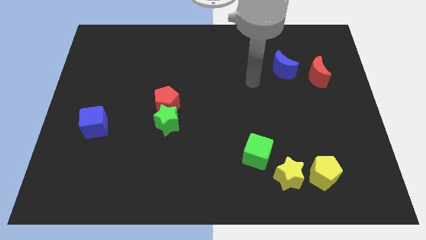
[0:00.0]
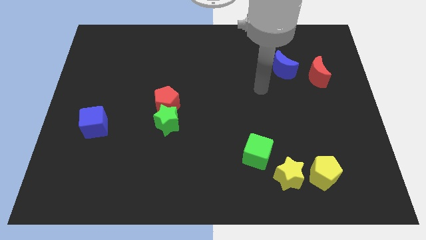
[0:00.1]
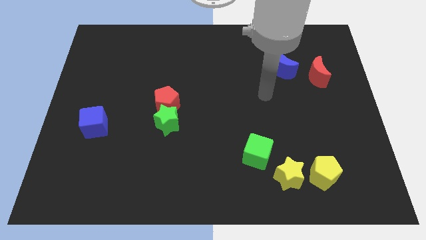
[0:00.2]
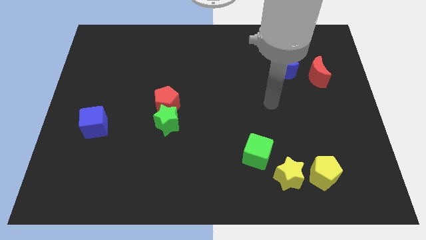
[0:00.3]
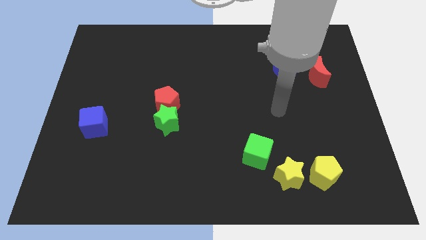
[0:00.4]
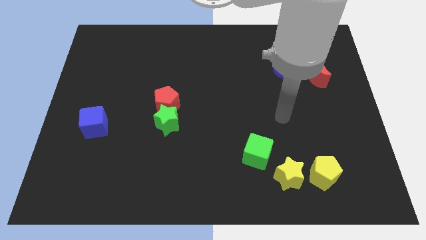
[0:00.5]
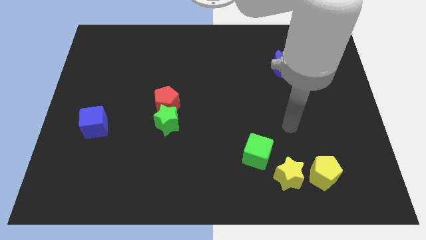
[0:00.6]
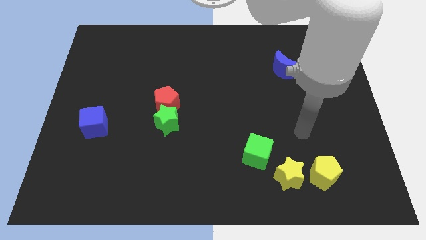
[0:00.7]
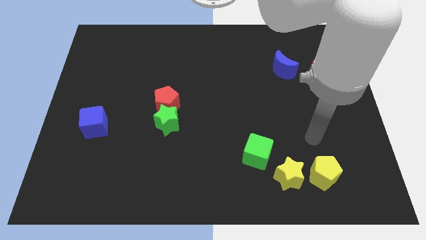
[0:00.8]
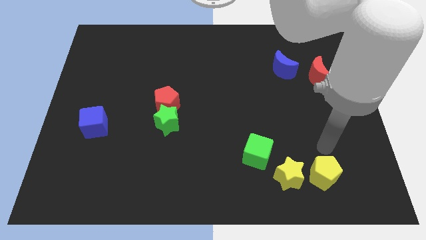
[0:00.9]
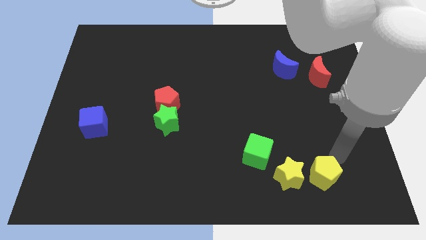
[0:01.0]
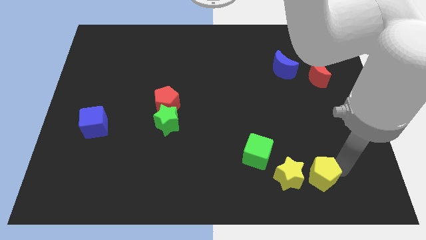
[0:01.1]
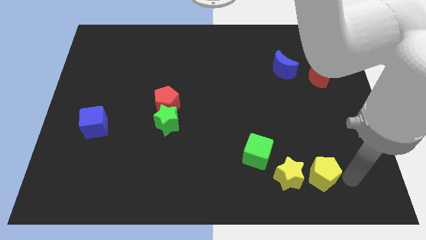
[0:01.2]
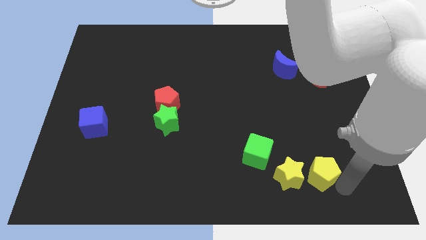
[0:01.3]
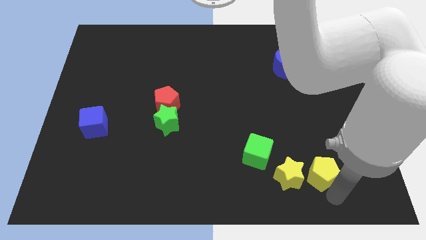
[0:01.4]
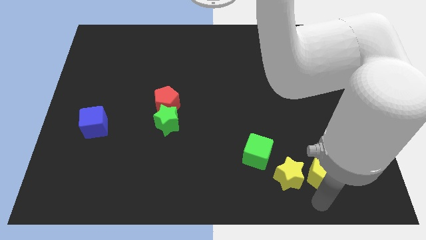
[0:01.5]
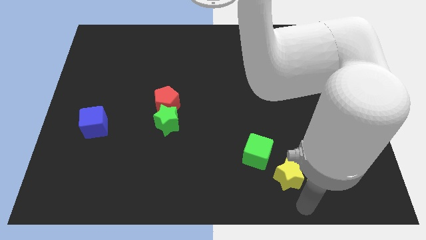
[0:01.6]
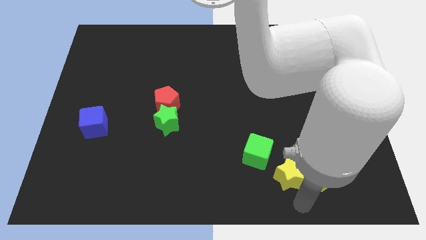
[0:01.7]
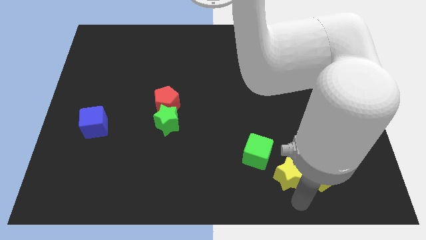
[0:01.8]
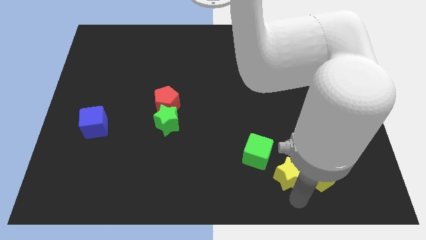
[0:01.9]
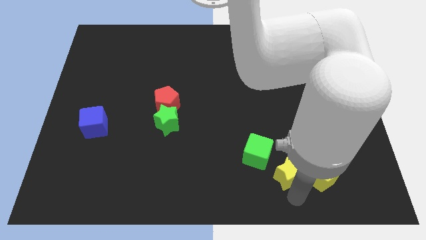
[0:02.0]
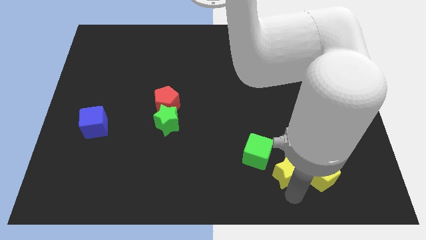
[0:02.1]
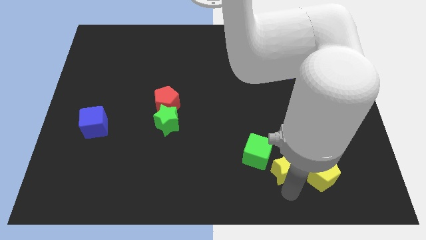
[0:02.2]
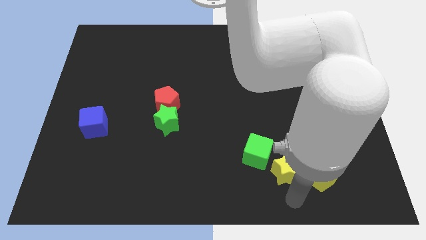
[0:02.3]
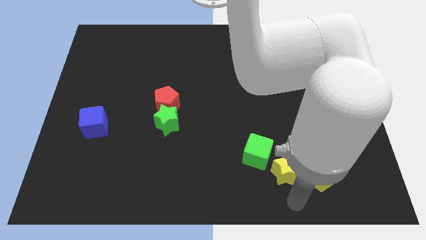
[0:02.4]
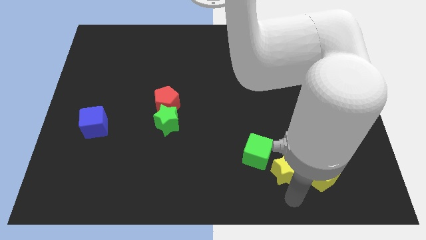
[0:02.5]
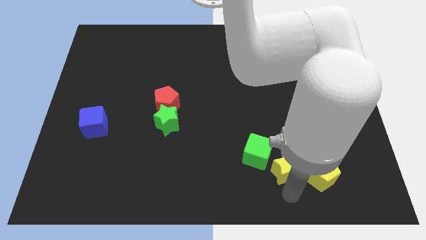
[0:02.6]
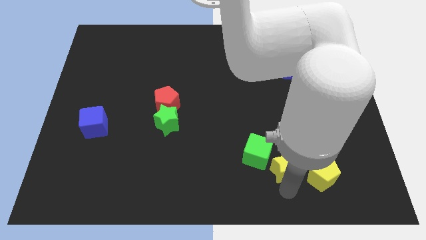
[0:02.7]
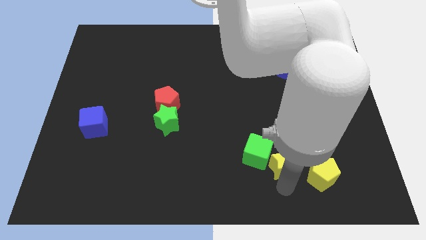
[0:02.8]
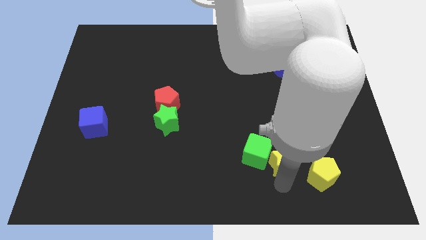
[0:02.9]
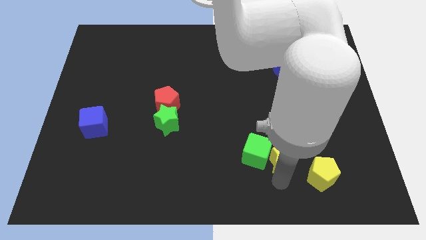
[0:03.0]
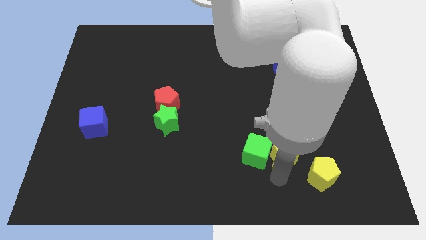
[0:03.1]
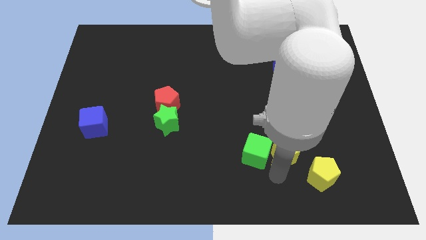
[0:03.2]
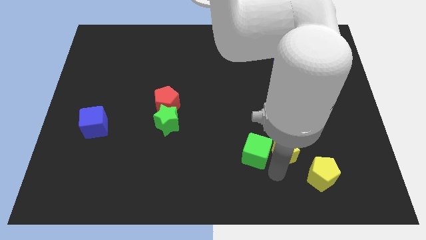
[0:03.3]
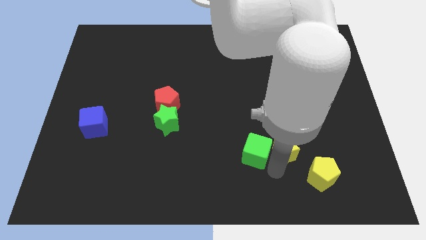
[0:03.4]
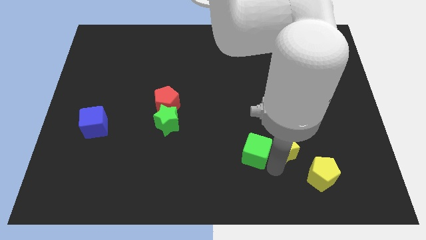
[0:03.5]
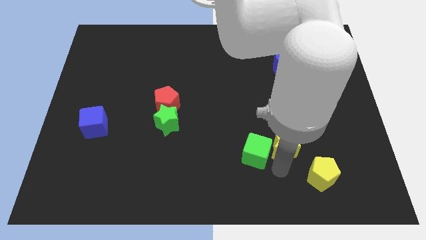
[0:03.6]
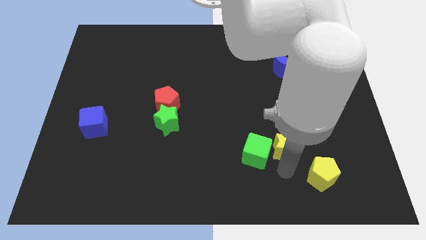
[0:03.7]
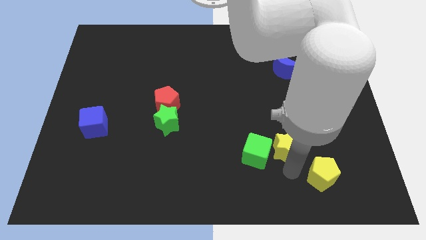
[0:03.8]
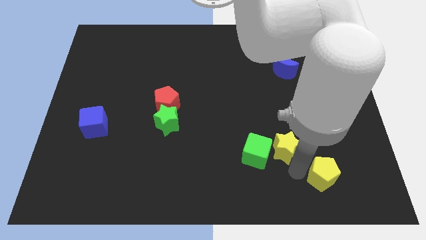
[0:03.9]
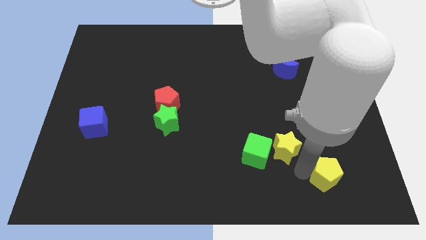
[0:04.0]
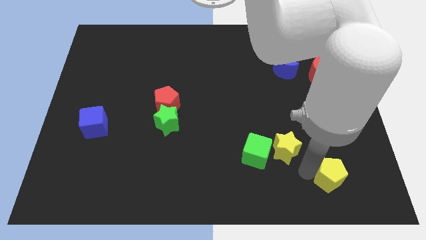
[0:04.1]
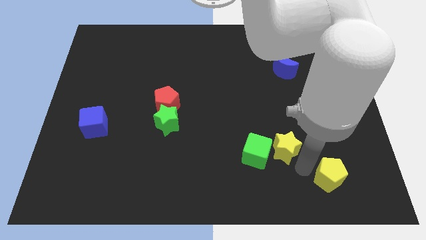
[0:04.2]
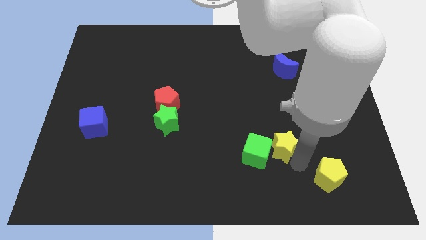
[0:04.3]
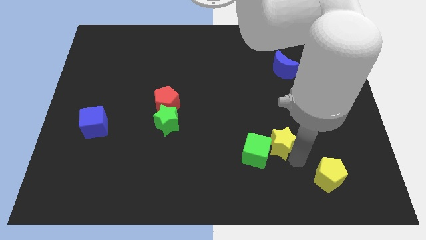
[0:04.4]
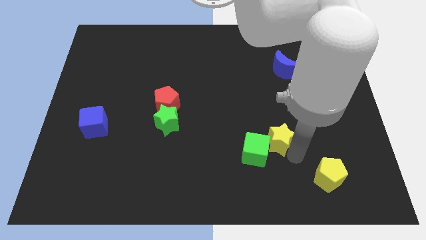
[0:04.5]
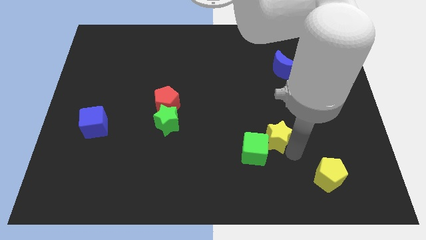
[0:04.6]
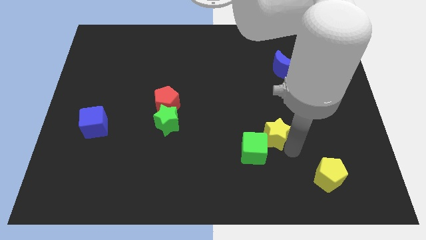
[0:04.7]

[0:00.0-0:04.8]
slide the yellow star up and then to the left a little

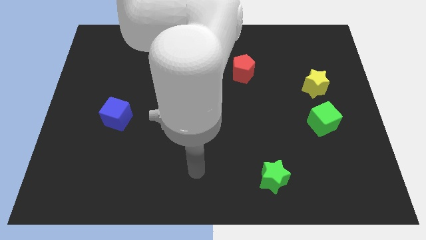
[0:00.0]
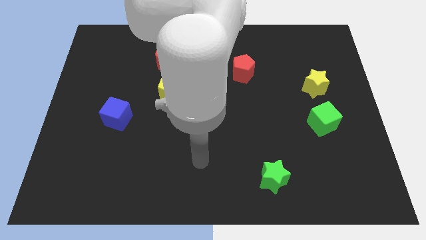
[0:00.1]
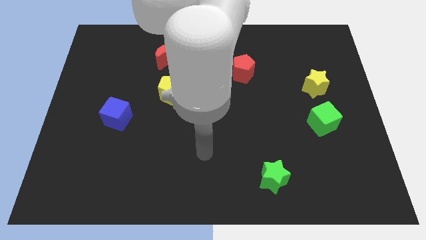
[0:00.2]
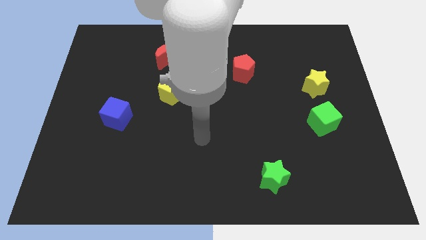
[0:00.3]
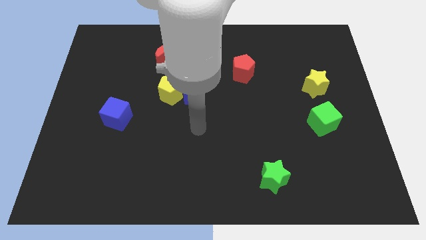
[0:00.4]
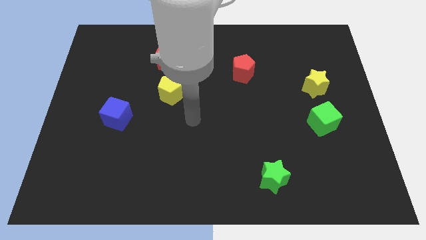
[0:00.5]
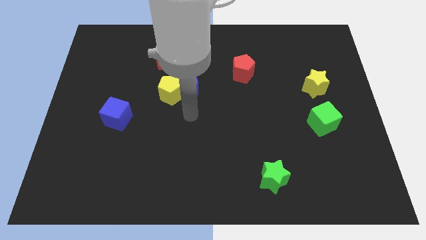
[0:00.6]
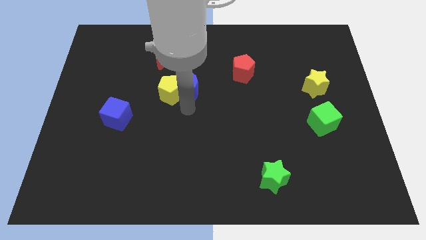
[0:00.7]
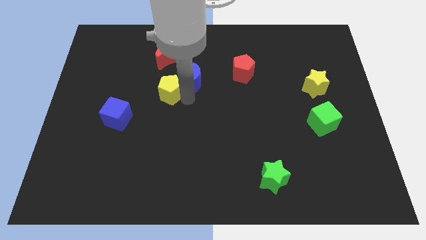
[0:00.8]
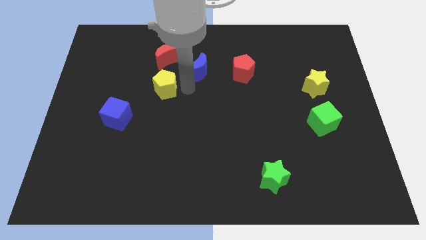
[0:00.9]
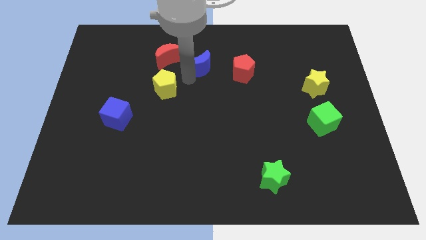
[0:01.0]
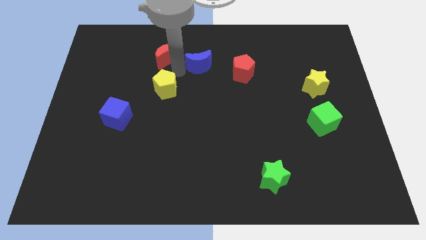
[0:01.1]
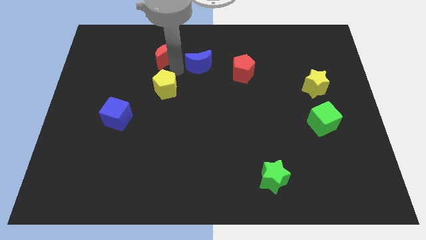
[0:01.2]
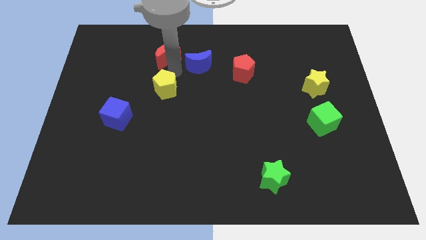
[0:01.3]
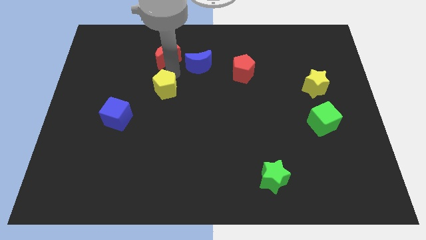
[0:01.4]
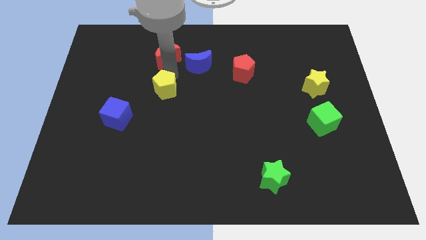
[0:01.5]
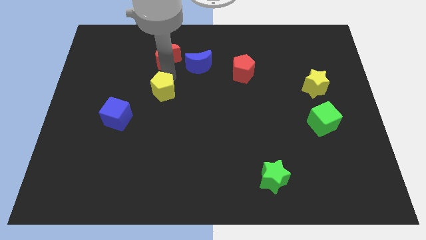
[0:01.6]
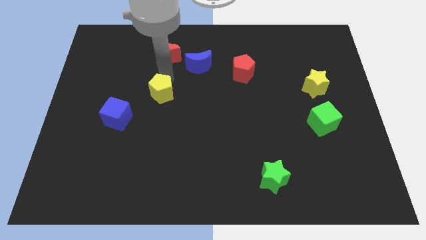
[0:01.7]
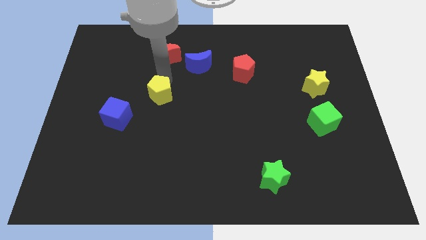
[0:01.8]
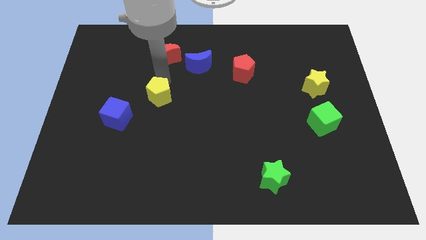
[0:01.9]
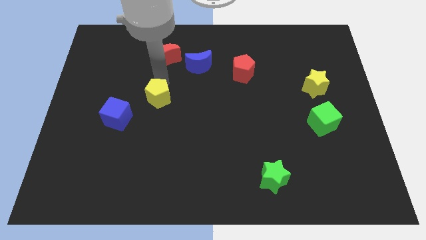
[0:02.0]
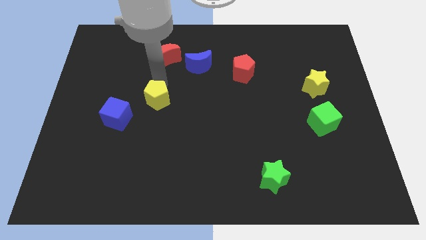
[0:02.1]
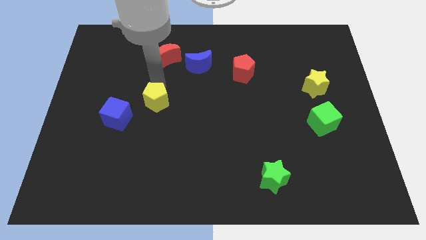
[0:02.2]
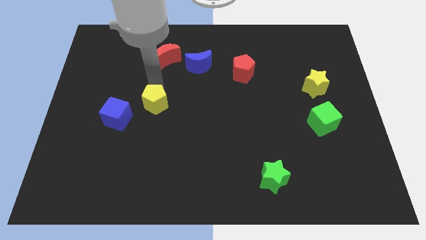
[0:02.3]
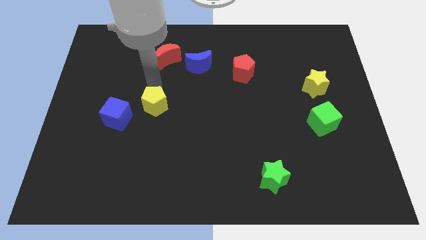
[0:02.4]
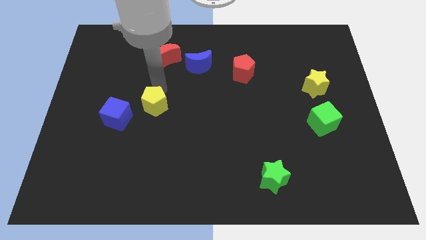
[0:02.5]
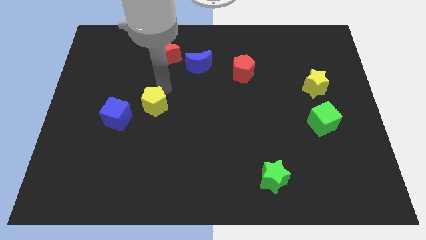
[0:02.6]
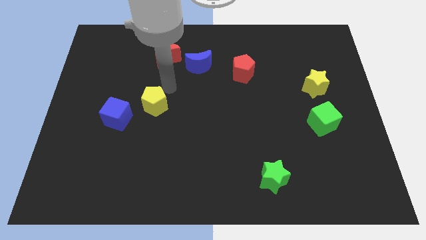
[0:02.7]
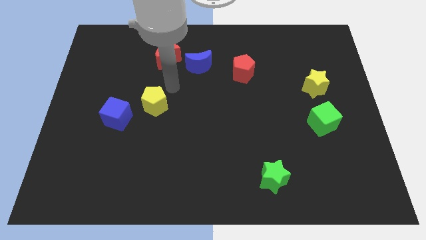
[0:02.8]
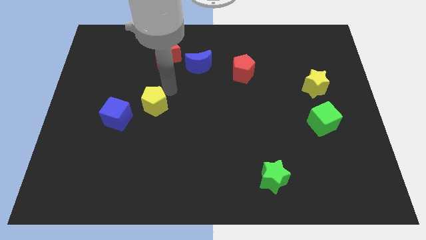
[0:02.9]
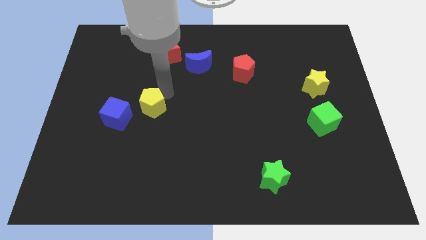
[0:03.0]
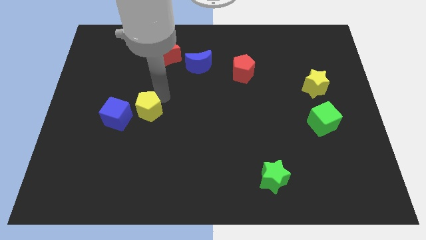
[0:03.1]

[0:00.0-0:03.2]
push the yellow pentagon a little down and then left
